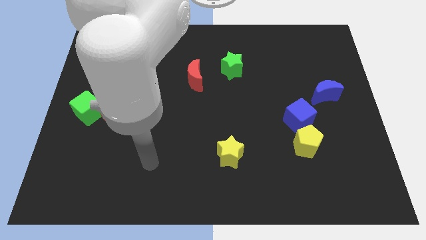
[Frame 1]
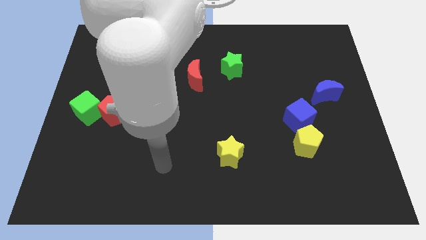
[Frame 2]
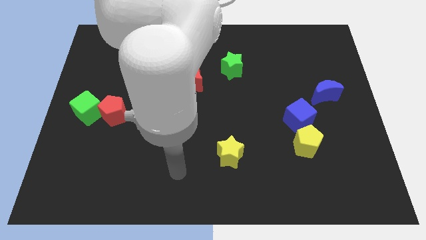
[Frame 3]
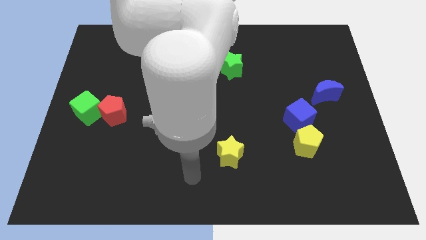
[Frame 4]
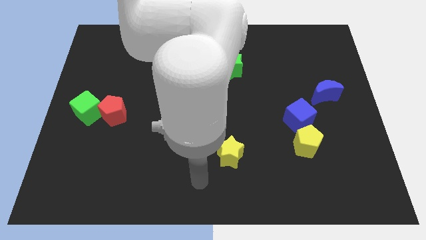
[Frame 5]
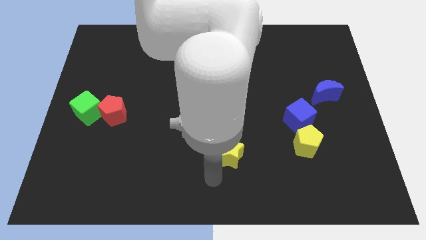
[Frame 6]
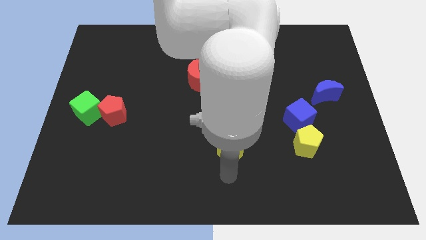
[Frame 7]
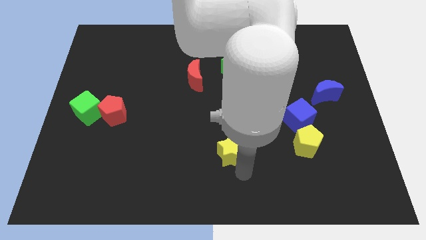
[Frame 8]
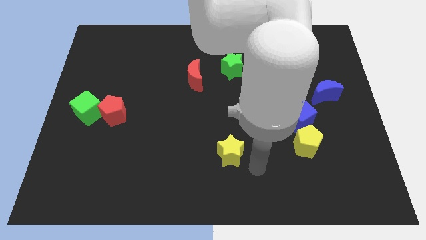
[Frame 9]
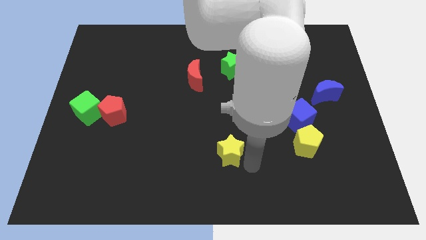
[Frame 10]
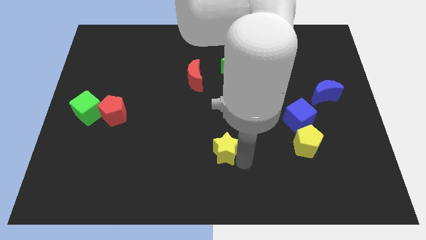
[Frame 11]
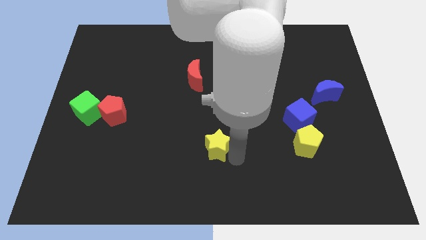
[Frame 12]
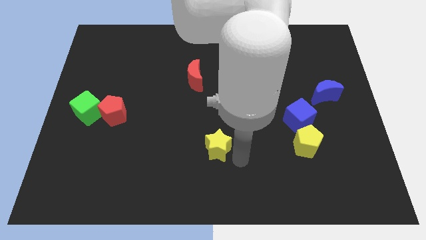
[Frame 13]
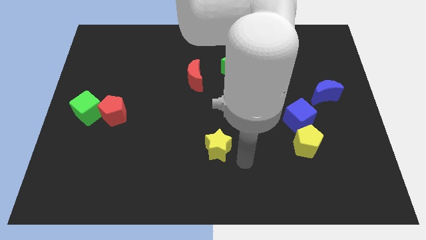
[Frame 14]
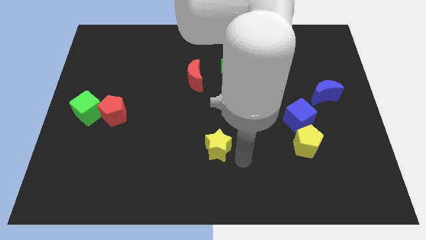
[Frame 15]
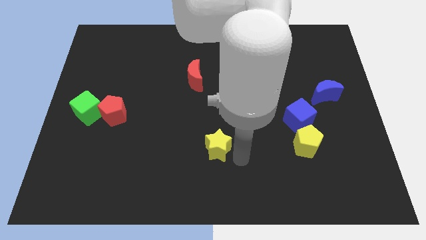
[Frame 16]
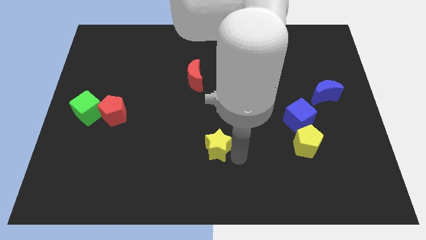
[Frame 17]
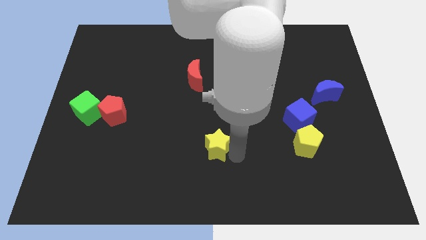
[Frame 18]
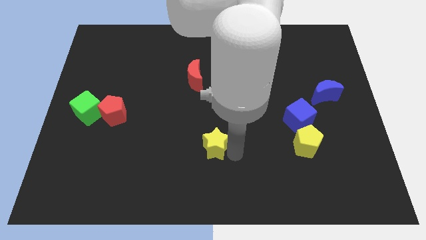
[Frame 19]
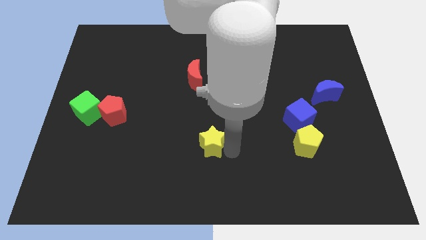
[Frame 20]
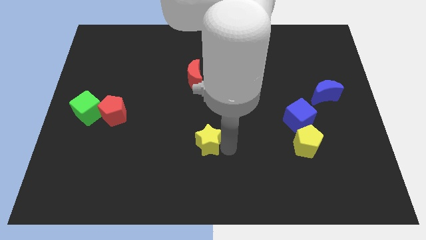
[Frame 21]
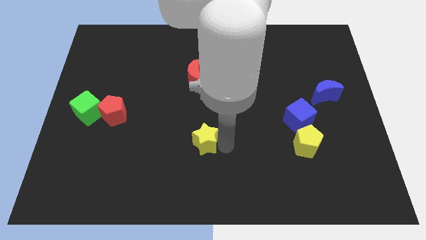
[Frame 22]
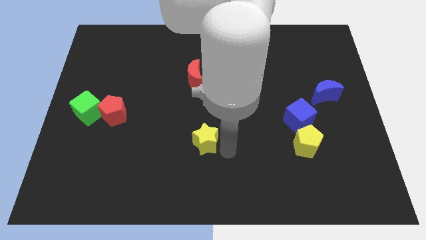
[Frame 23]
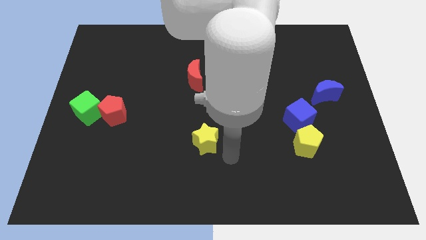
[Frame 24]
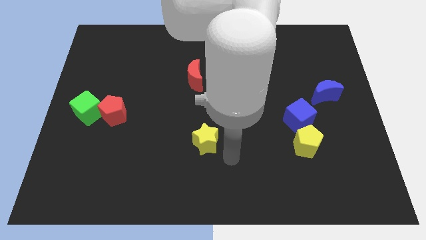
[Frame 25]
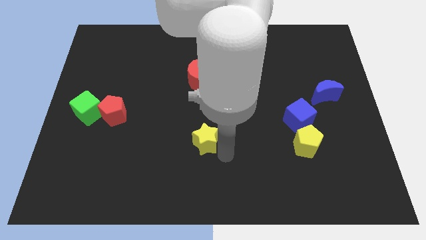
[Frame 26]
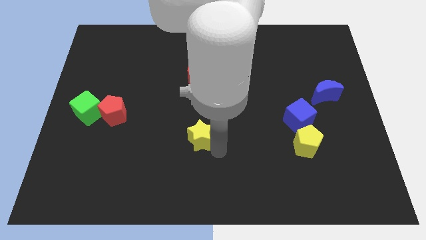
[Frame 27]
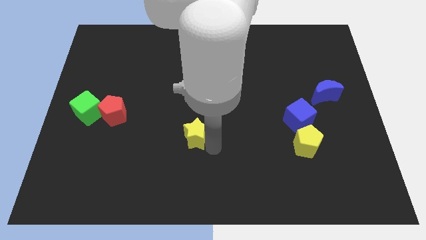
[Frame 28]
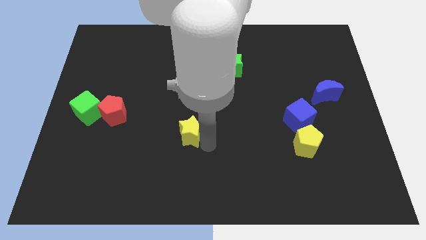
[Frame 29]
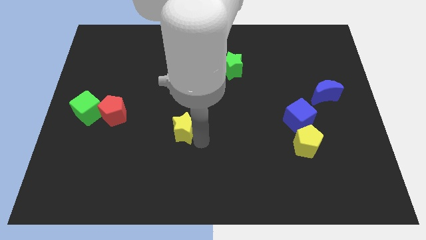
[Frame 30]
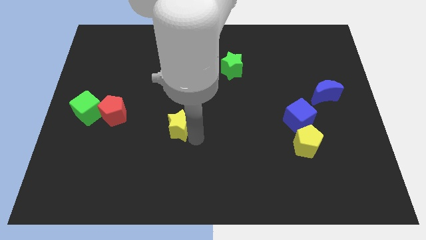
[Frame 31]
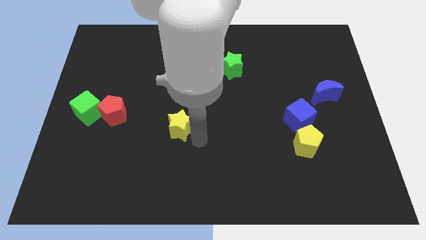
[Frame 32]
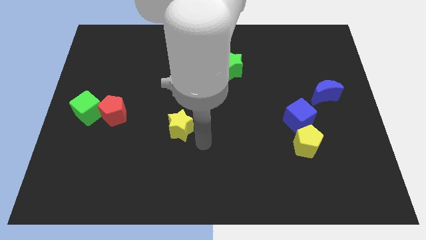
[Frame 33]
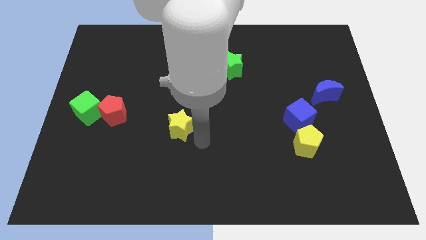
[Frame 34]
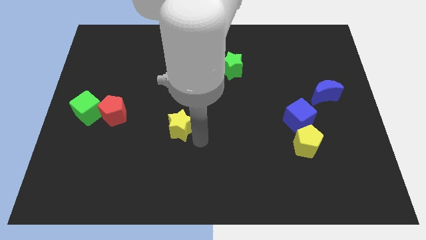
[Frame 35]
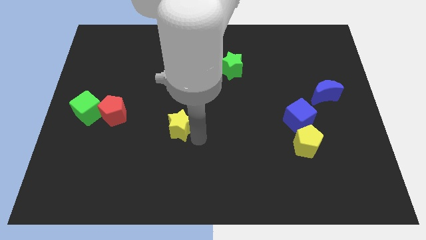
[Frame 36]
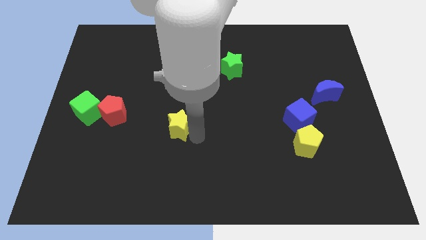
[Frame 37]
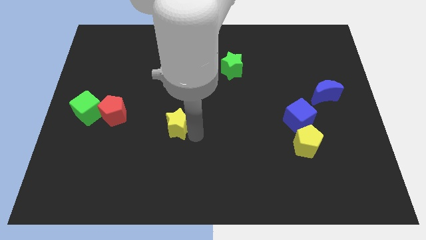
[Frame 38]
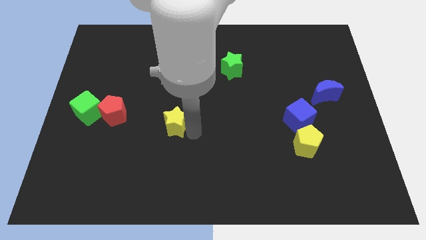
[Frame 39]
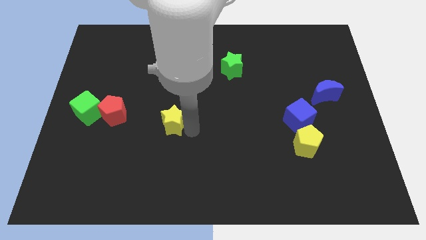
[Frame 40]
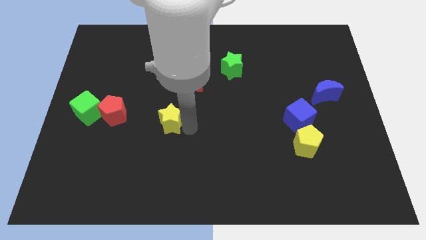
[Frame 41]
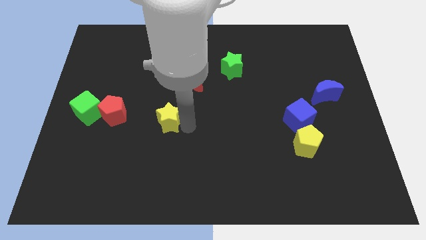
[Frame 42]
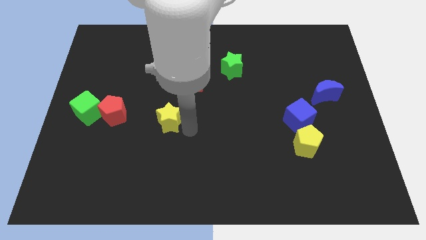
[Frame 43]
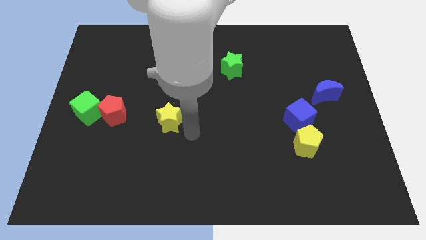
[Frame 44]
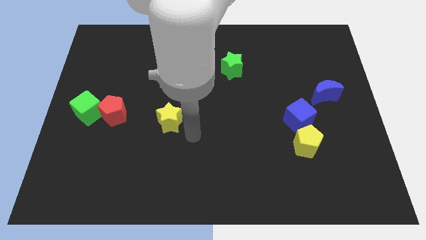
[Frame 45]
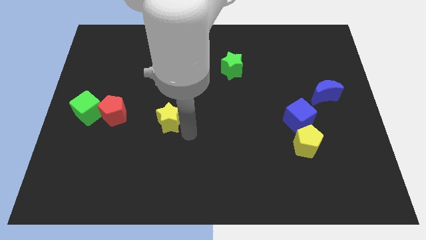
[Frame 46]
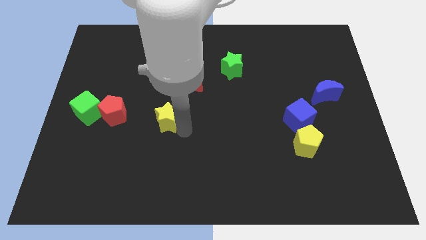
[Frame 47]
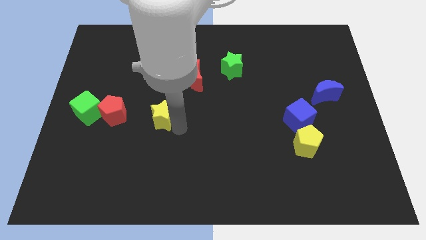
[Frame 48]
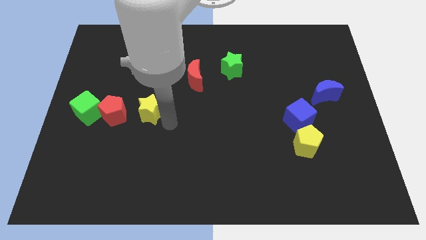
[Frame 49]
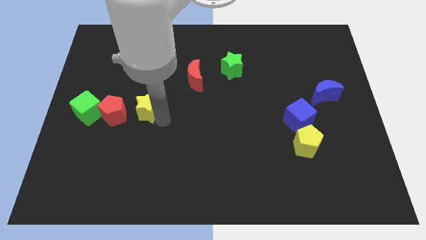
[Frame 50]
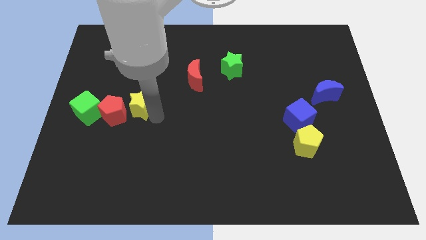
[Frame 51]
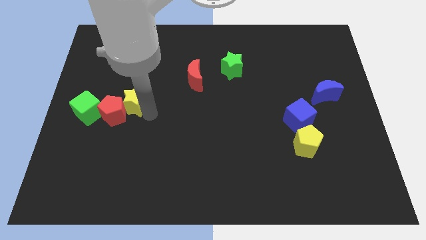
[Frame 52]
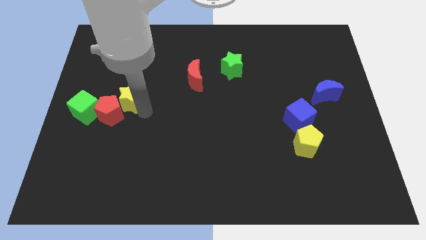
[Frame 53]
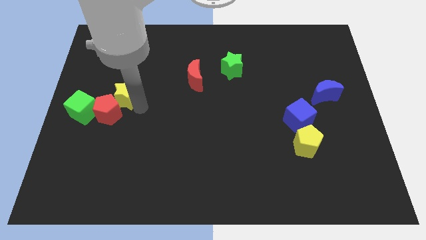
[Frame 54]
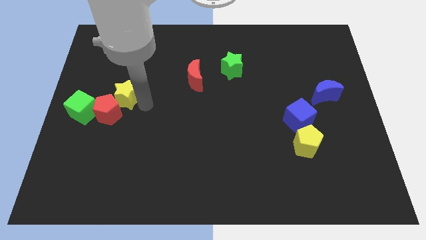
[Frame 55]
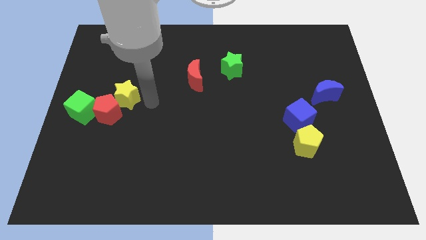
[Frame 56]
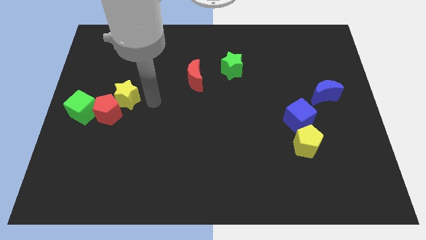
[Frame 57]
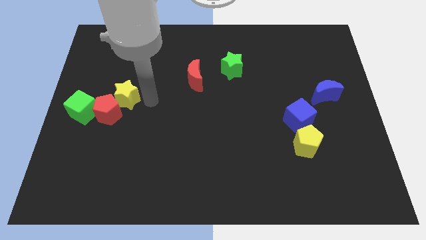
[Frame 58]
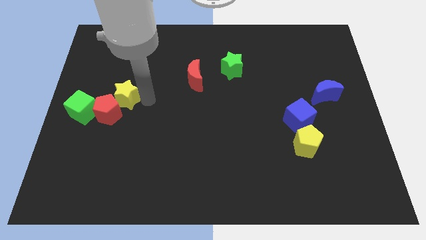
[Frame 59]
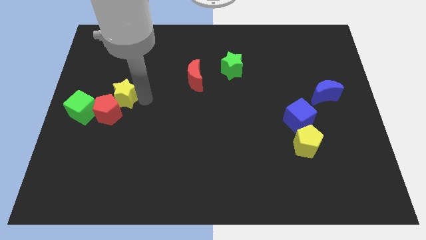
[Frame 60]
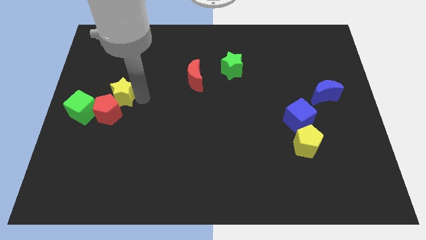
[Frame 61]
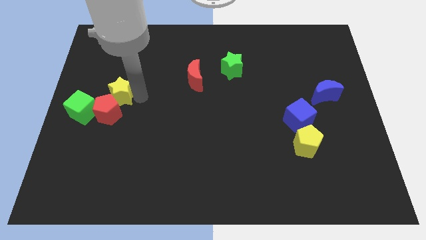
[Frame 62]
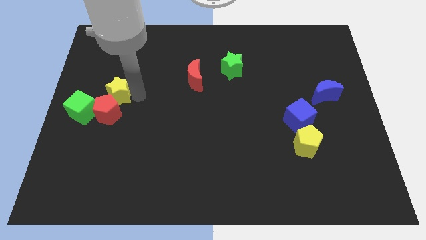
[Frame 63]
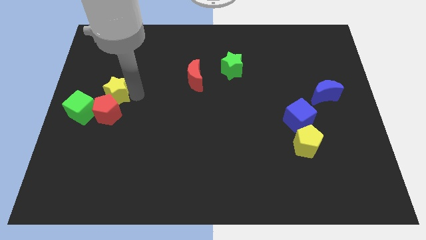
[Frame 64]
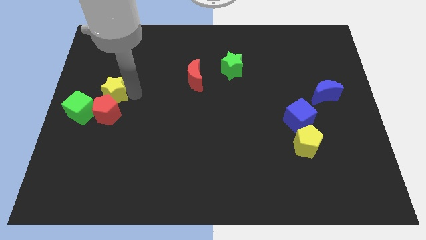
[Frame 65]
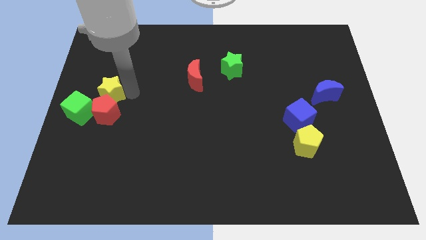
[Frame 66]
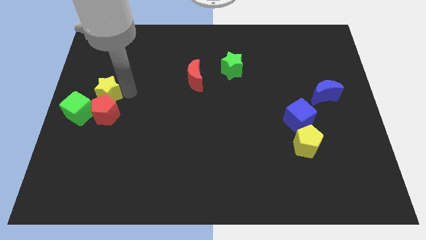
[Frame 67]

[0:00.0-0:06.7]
slide the yellow star to the center left

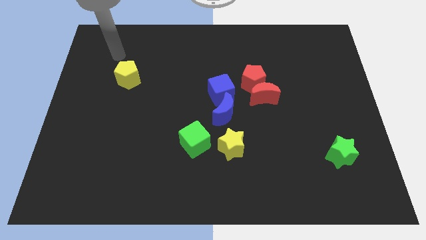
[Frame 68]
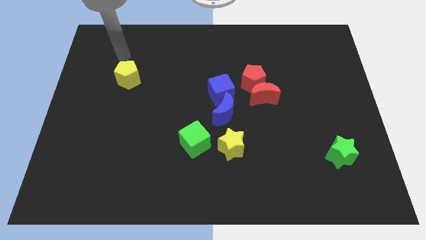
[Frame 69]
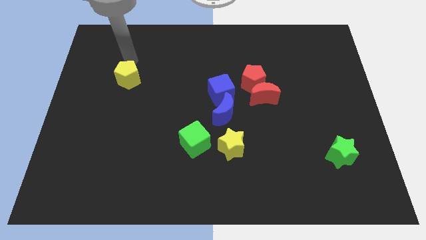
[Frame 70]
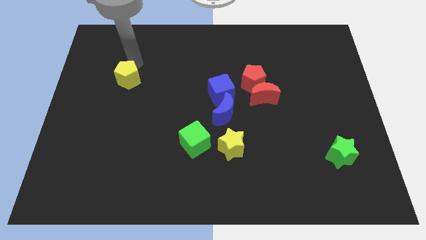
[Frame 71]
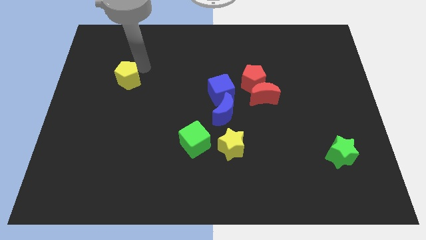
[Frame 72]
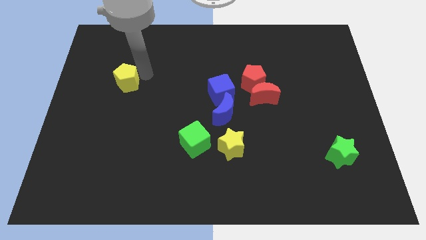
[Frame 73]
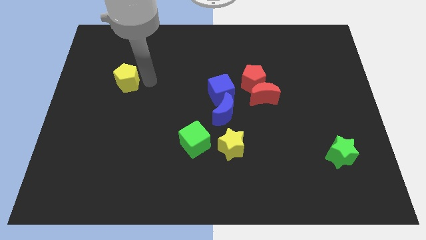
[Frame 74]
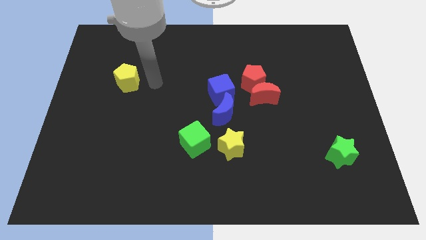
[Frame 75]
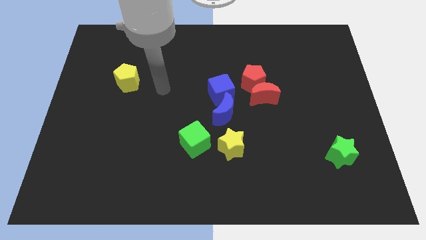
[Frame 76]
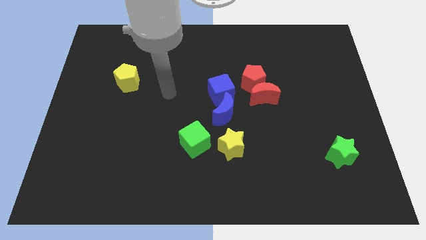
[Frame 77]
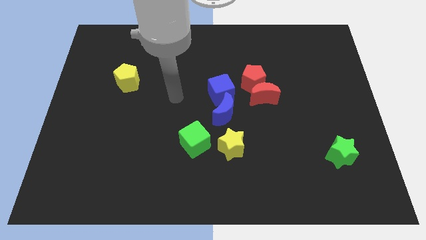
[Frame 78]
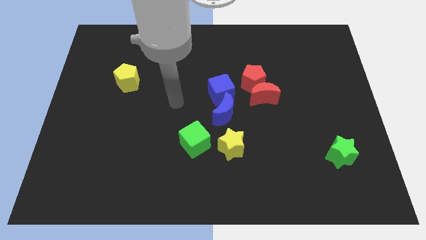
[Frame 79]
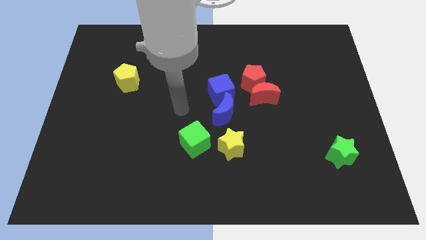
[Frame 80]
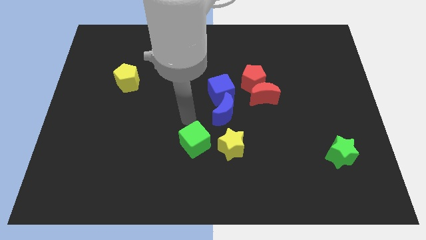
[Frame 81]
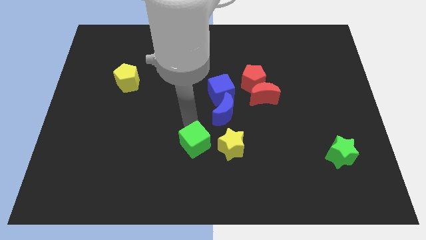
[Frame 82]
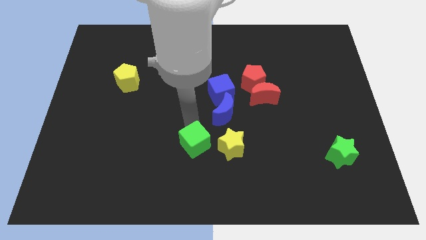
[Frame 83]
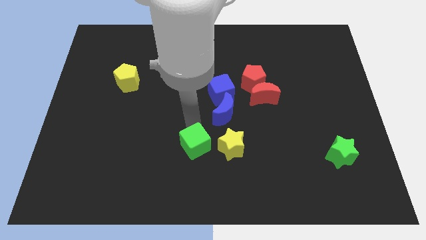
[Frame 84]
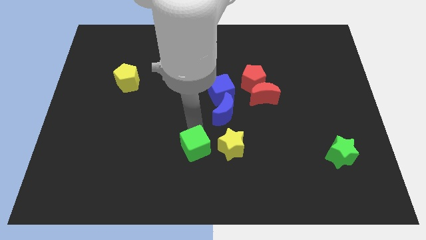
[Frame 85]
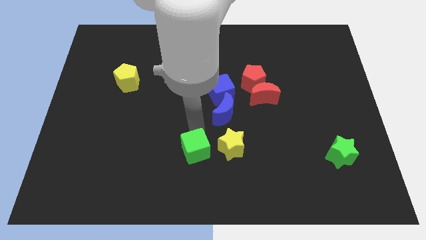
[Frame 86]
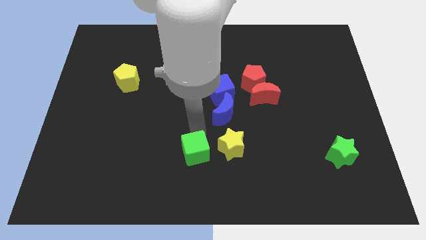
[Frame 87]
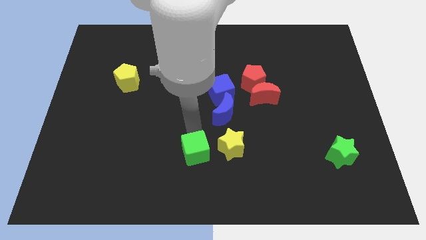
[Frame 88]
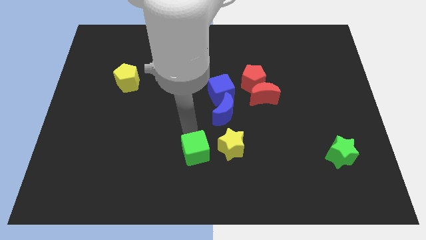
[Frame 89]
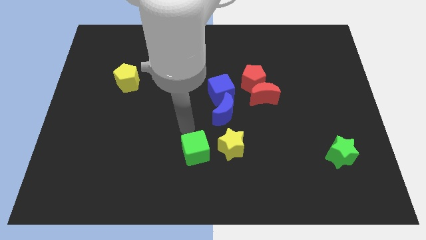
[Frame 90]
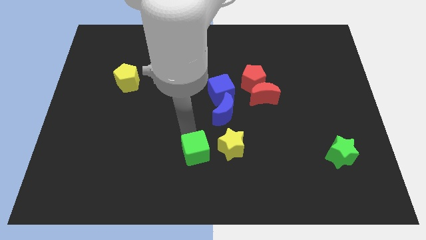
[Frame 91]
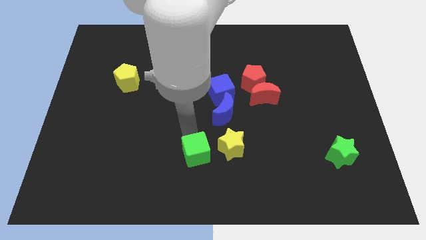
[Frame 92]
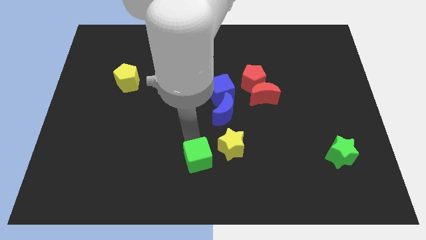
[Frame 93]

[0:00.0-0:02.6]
push the green cube to the bottom side
